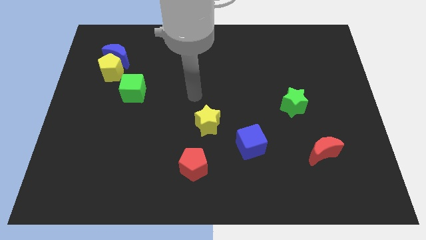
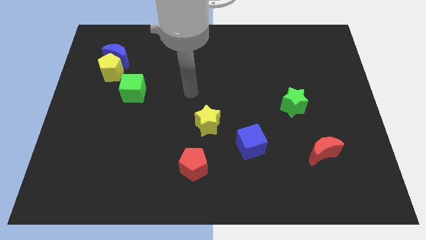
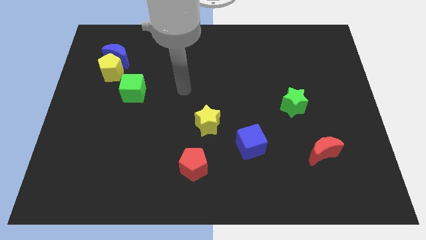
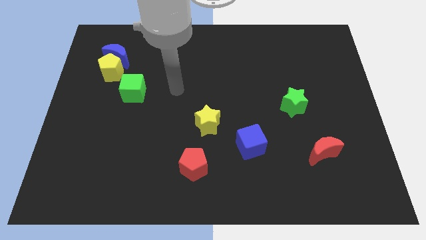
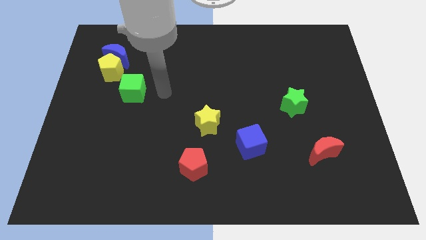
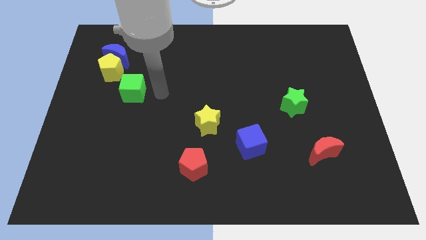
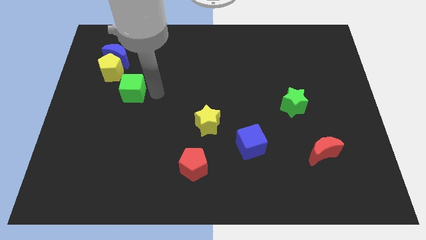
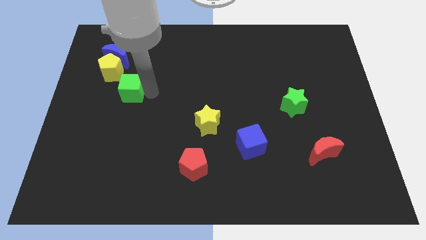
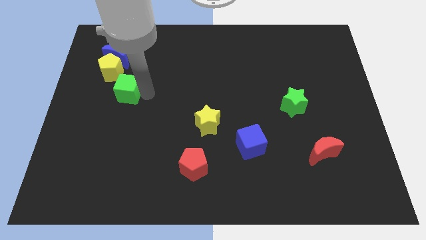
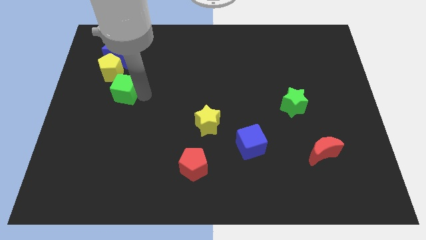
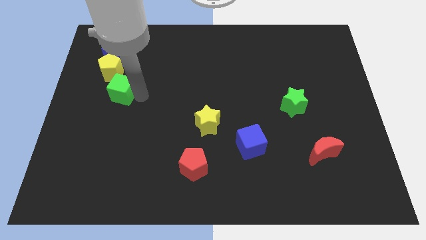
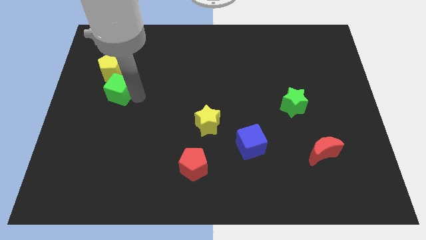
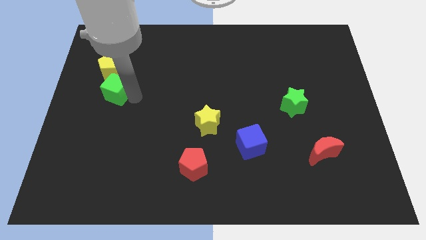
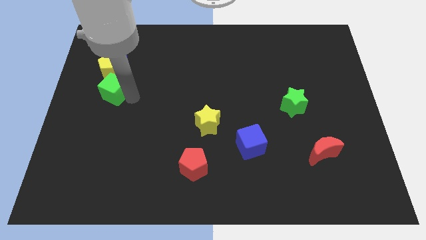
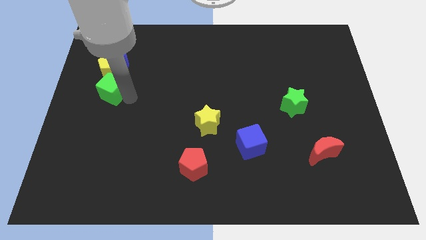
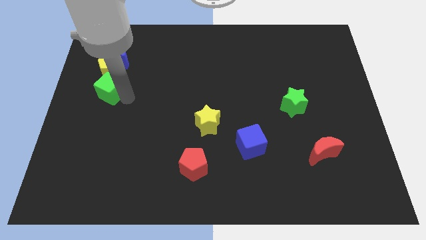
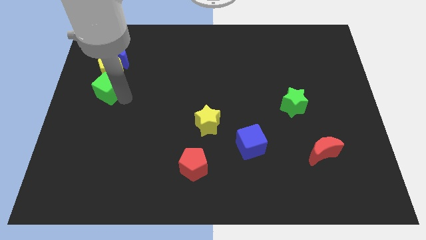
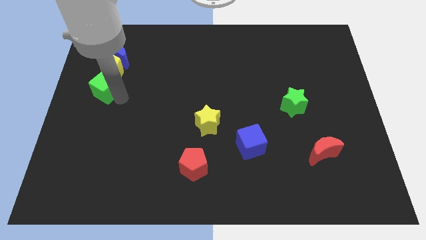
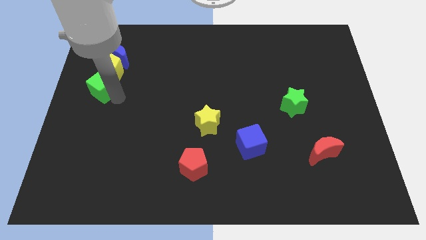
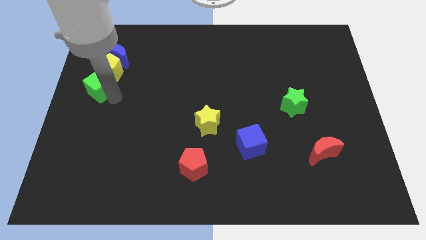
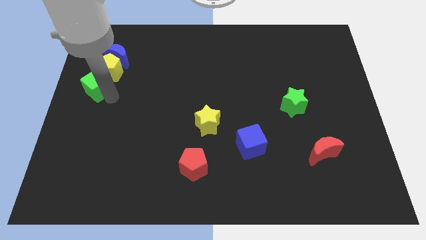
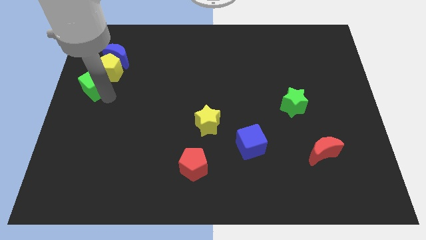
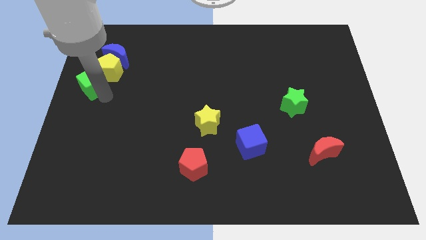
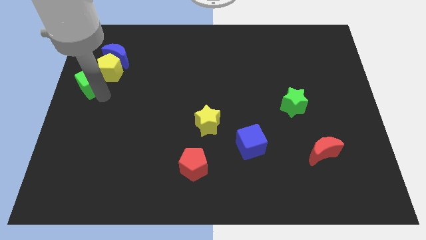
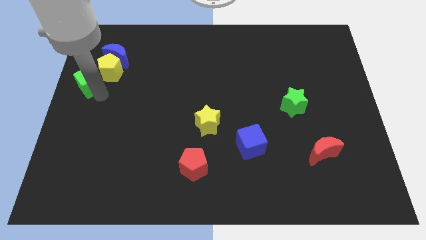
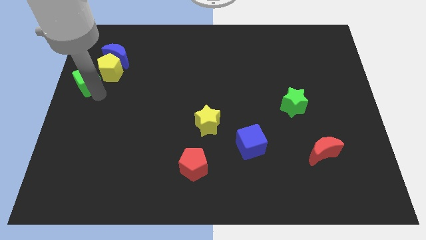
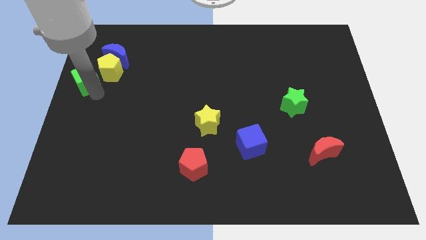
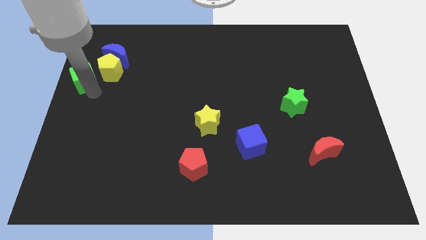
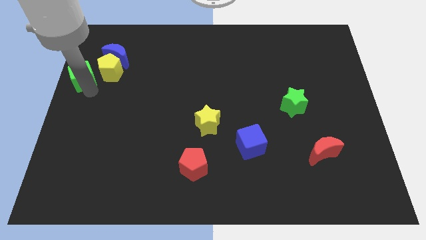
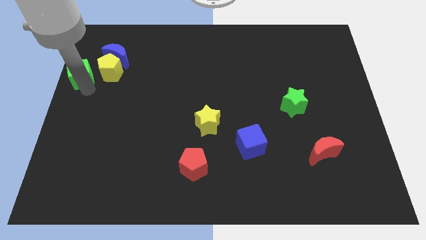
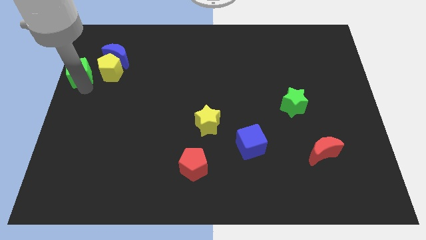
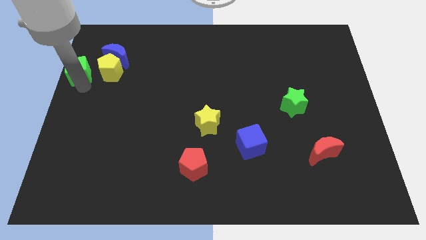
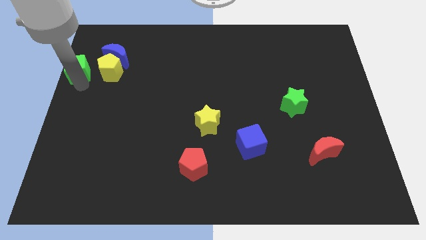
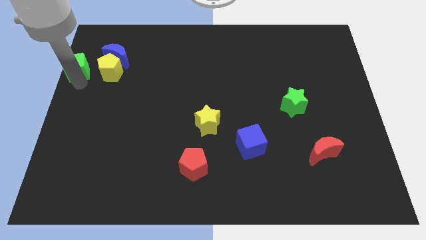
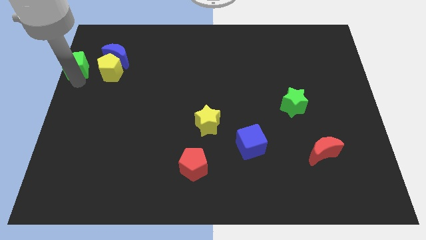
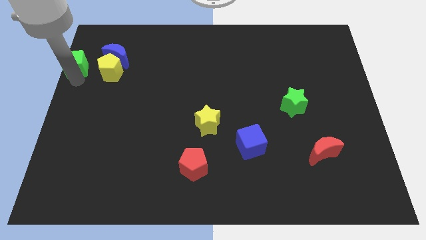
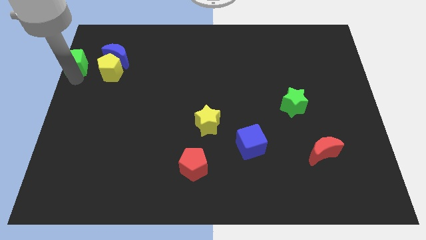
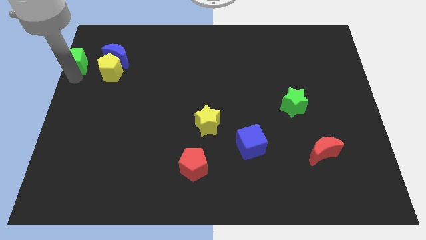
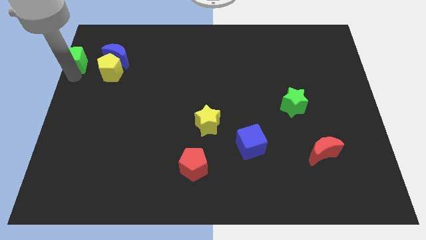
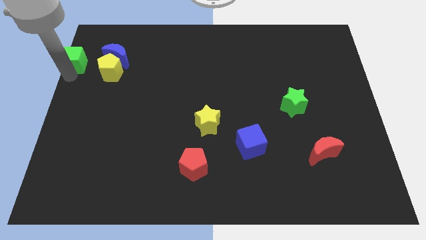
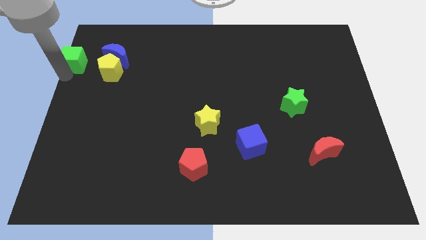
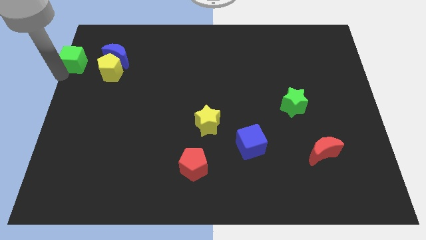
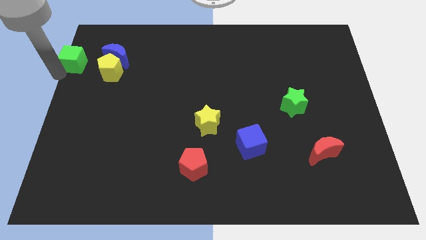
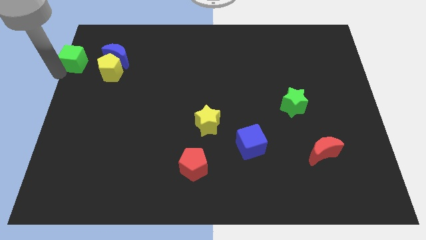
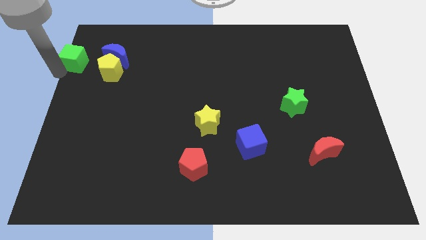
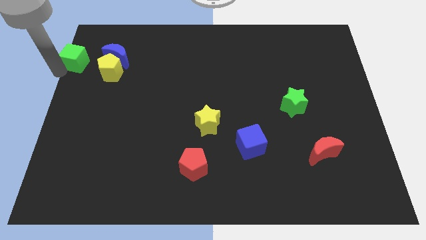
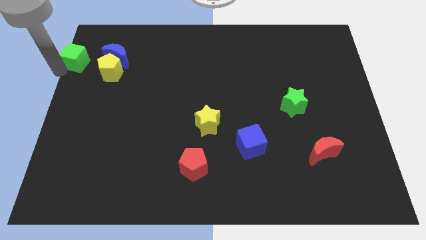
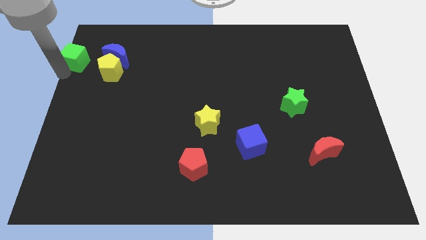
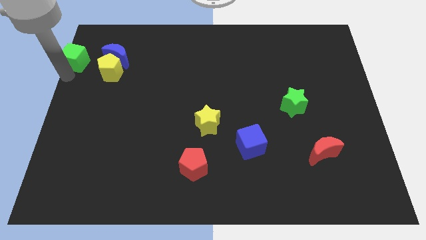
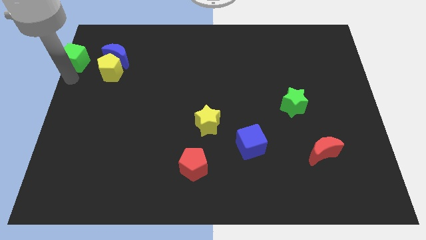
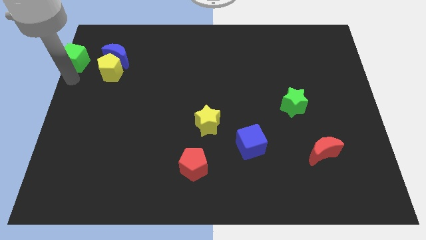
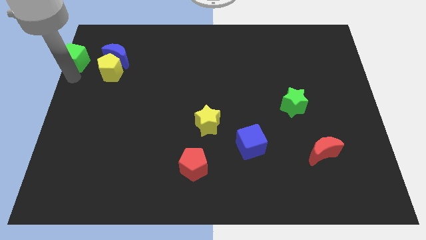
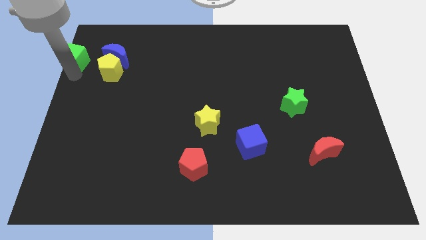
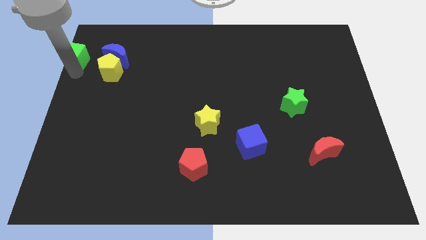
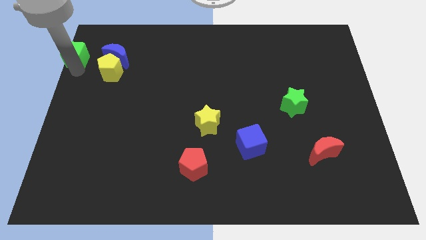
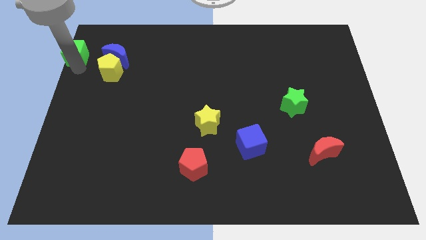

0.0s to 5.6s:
put the green cube to the upper left corner

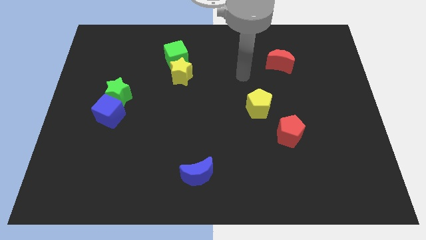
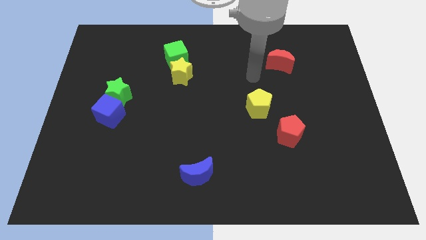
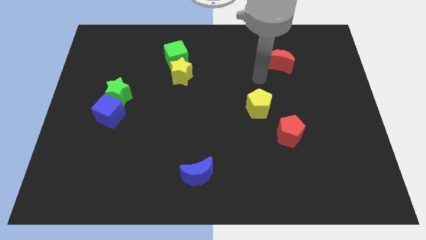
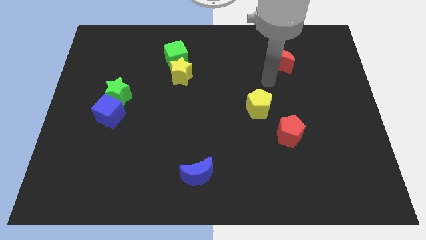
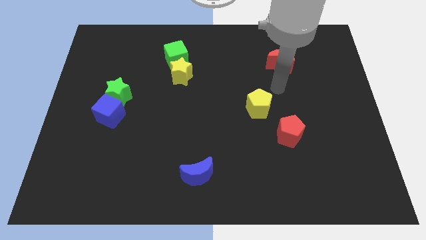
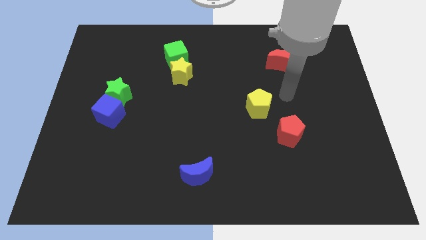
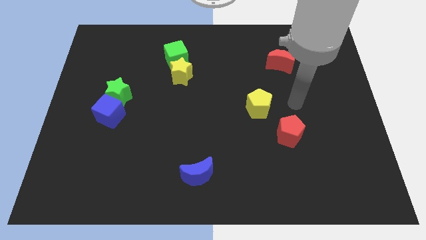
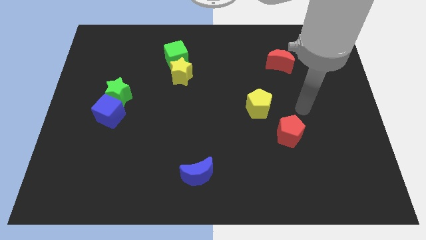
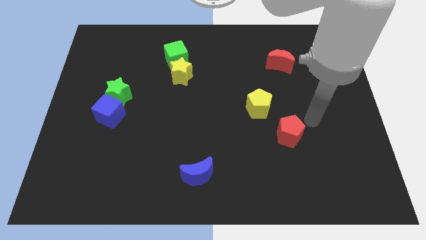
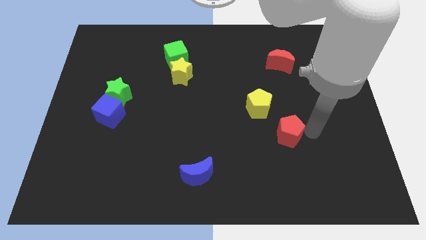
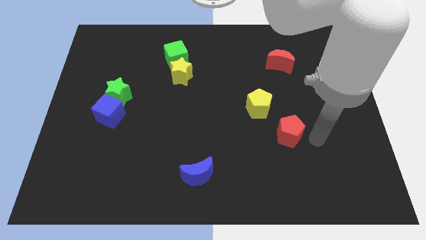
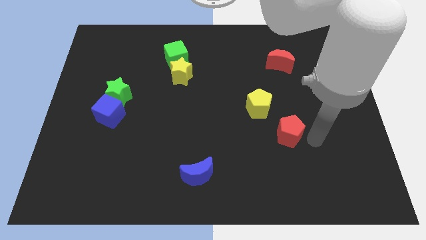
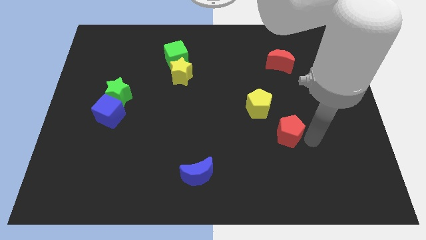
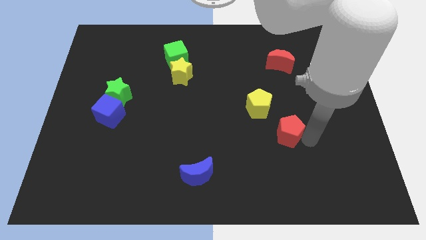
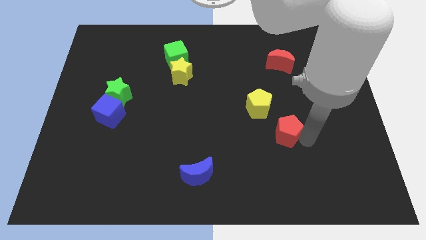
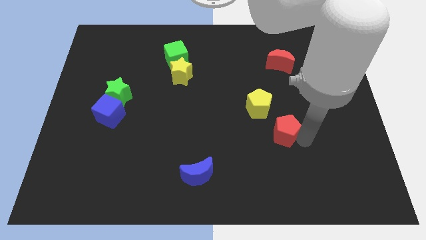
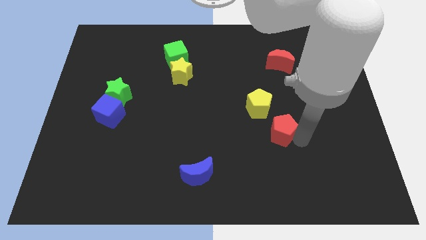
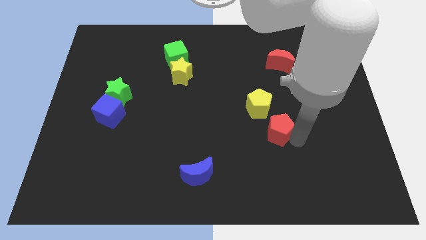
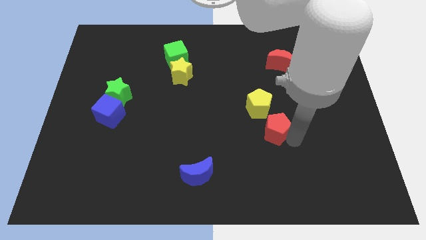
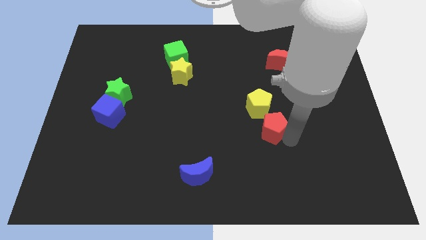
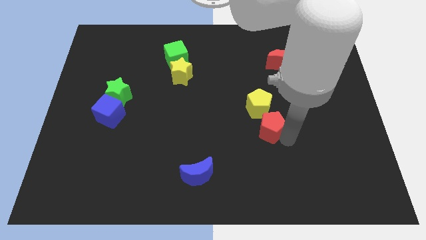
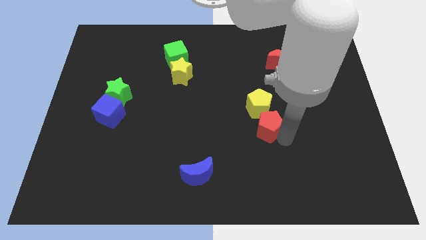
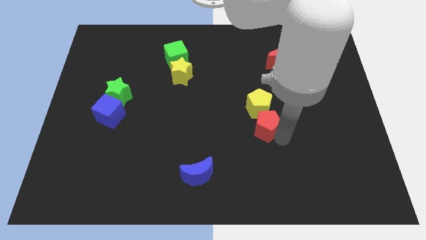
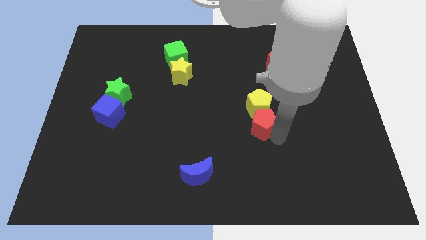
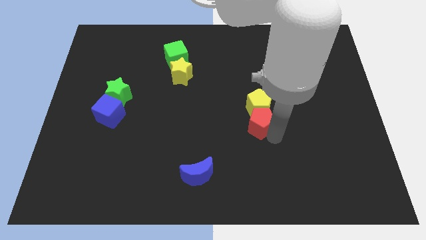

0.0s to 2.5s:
slide the red pentagon to the middle

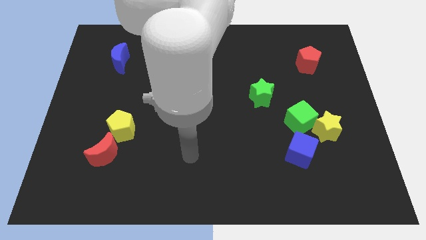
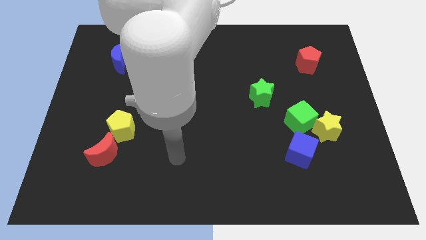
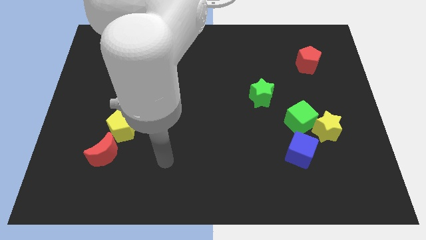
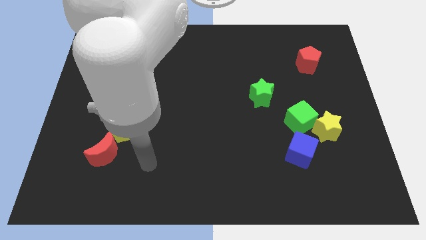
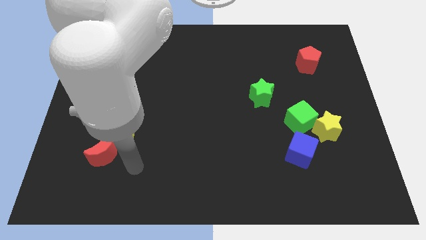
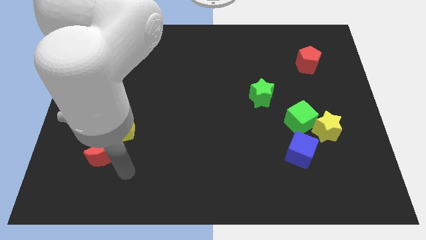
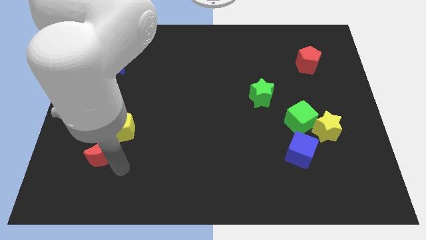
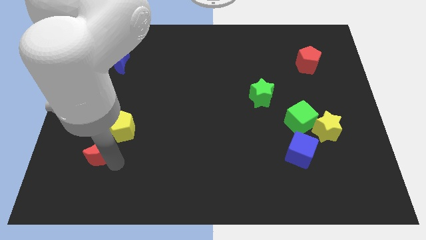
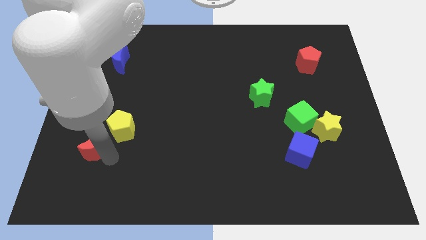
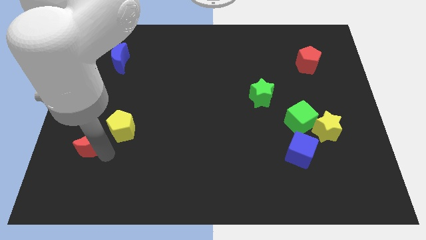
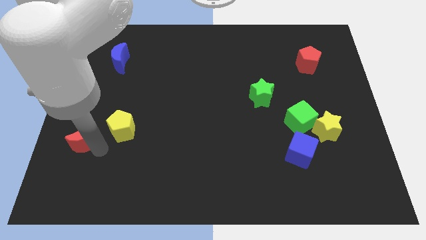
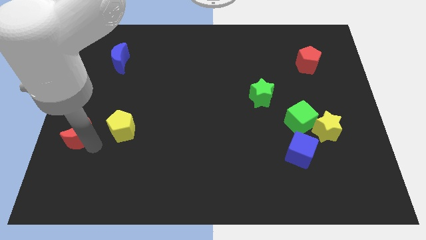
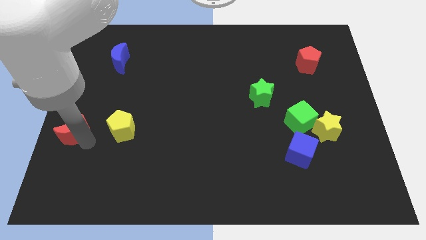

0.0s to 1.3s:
slide the red moon to the left side
